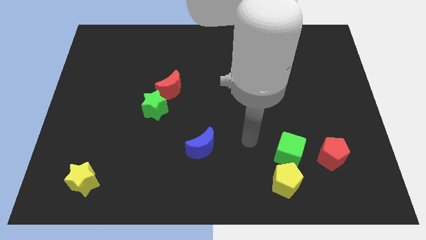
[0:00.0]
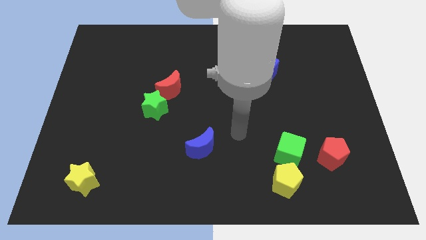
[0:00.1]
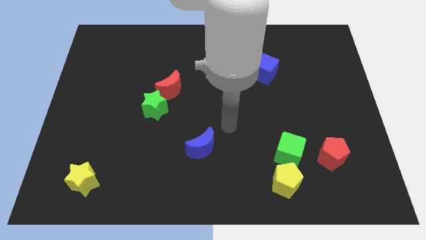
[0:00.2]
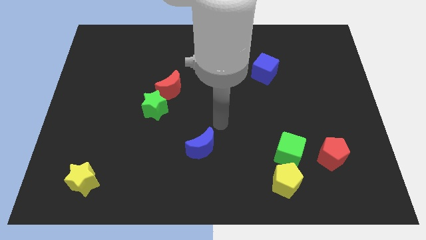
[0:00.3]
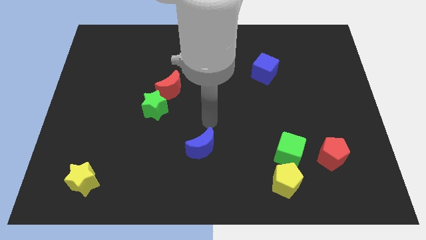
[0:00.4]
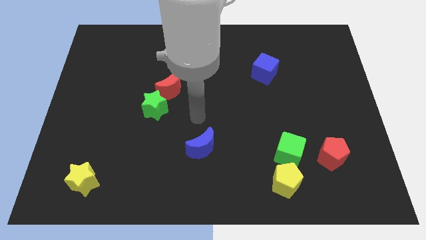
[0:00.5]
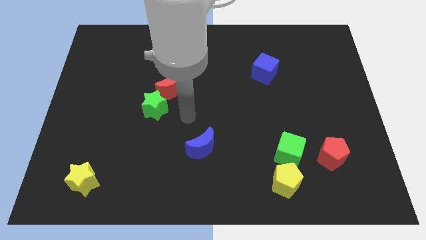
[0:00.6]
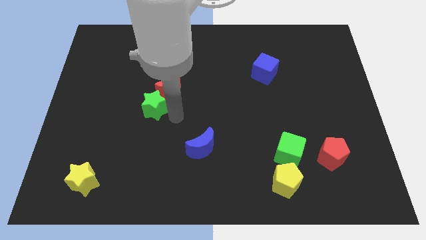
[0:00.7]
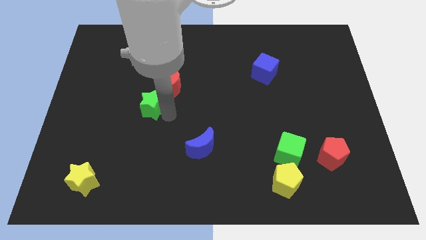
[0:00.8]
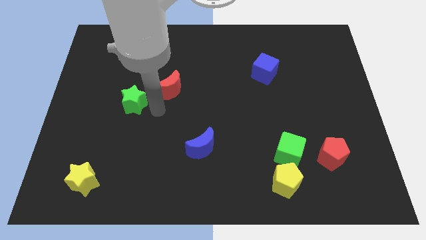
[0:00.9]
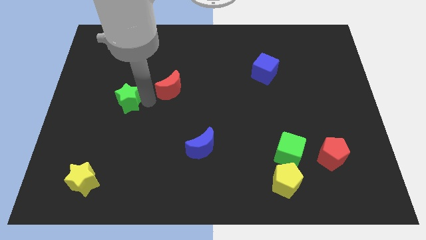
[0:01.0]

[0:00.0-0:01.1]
pull the red moon apart from the green star

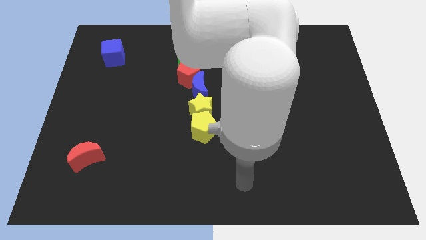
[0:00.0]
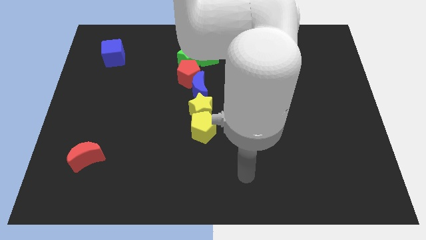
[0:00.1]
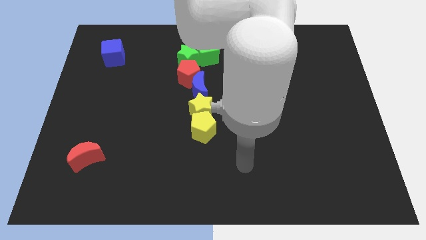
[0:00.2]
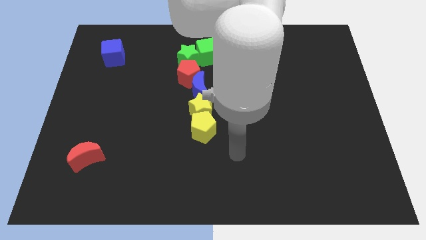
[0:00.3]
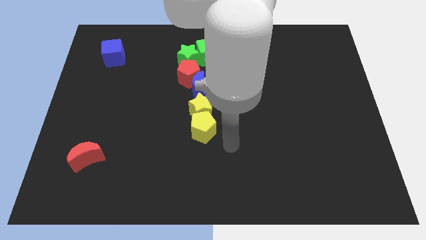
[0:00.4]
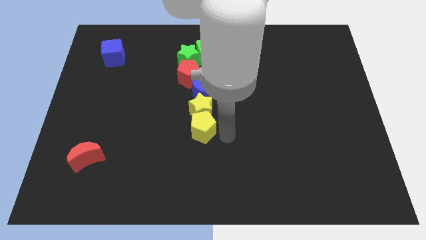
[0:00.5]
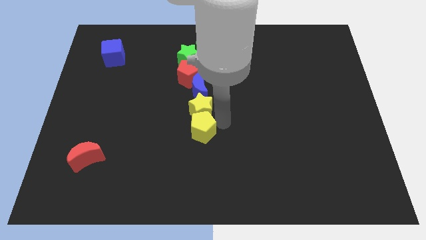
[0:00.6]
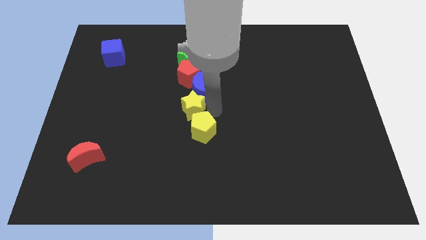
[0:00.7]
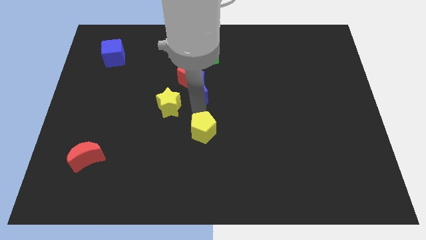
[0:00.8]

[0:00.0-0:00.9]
separate the yellow pentagon from the yellow star

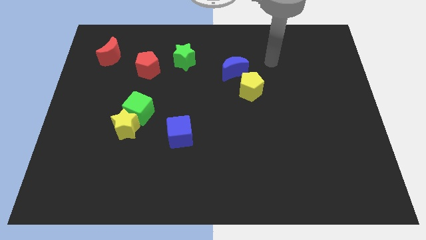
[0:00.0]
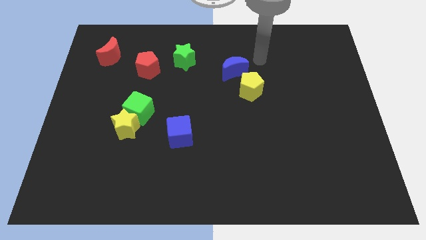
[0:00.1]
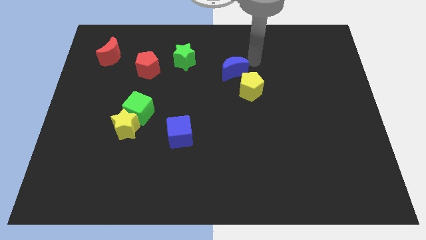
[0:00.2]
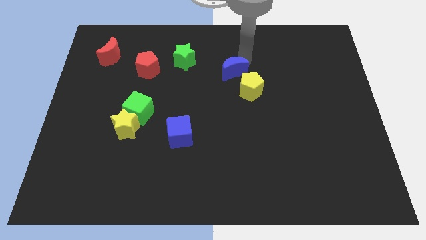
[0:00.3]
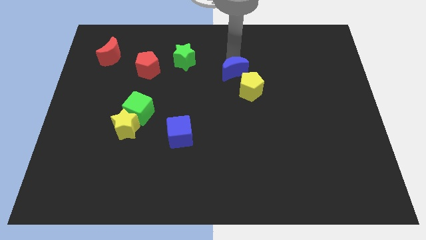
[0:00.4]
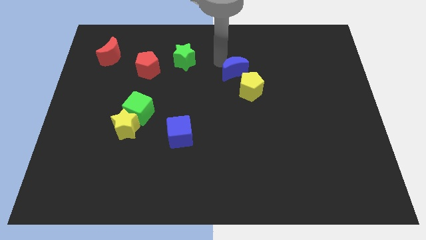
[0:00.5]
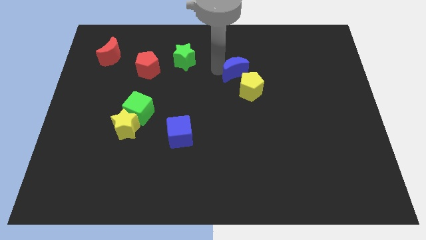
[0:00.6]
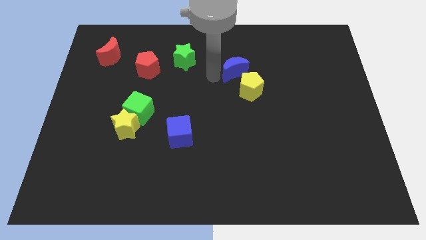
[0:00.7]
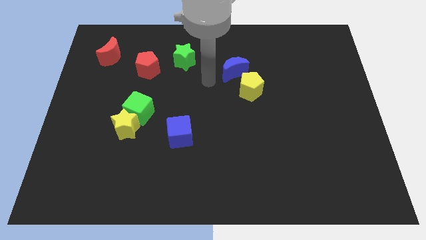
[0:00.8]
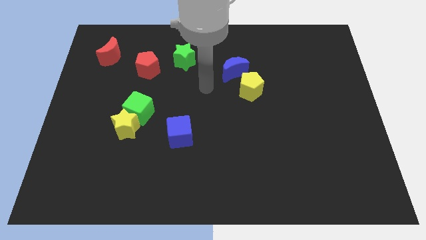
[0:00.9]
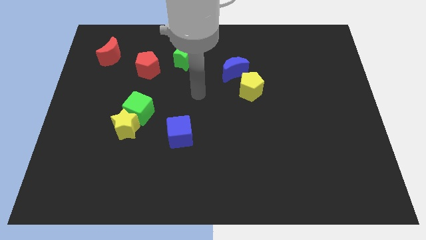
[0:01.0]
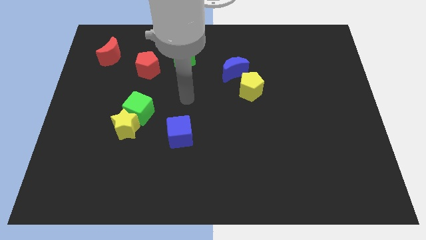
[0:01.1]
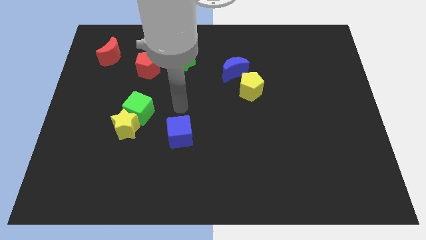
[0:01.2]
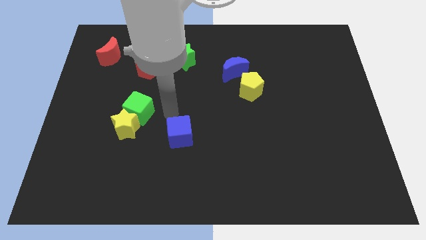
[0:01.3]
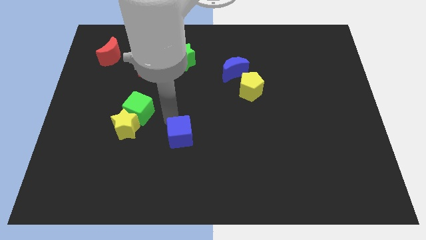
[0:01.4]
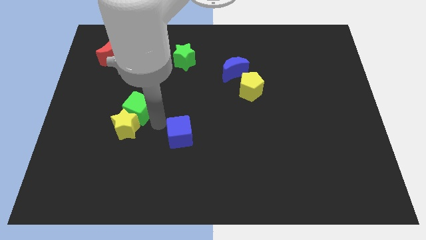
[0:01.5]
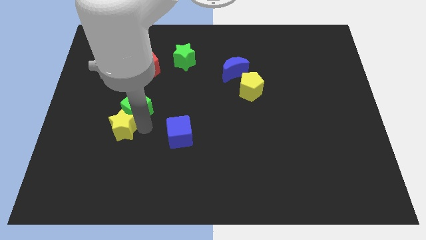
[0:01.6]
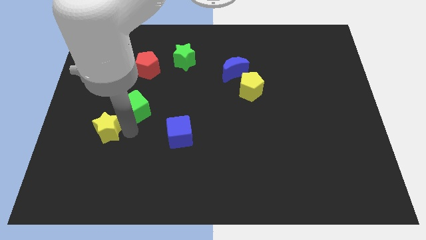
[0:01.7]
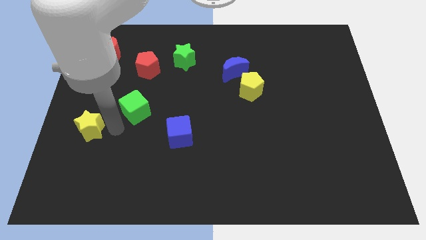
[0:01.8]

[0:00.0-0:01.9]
pull the green cube apart from the yellow star

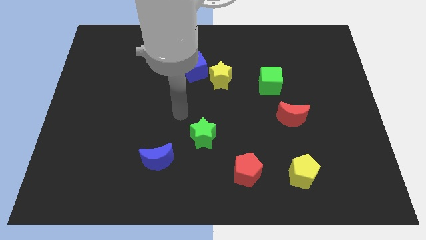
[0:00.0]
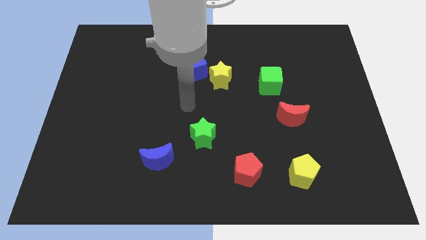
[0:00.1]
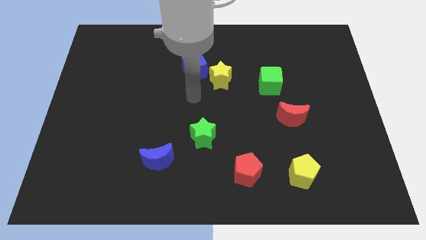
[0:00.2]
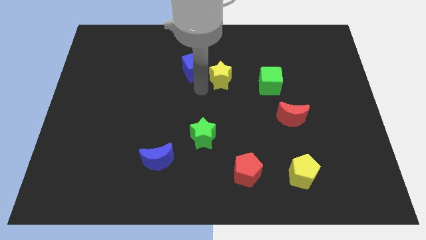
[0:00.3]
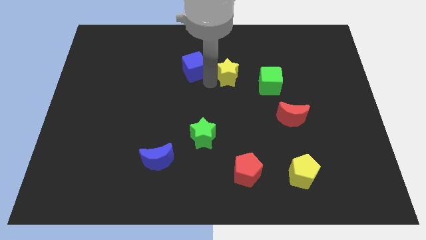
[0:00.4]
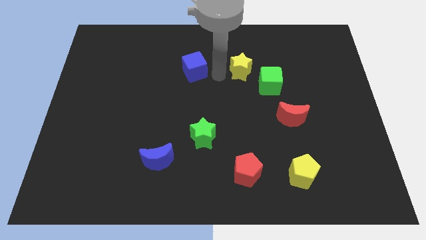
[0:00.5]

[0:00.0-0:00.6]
separate the blue cube from the yellow star

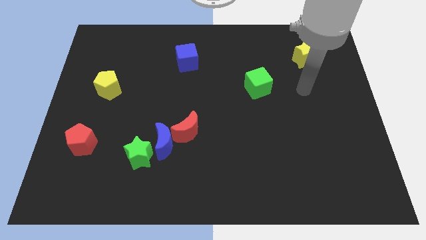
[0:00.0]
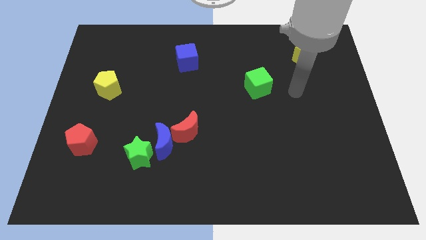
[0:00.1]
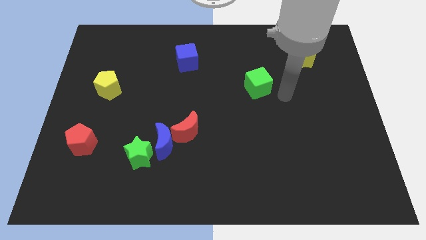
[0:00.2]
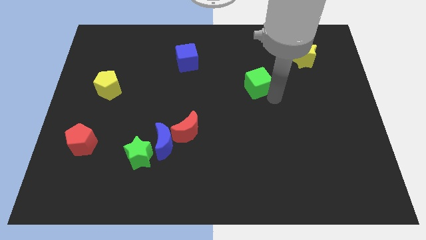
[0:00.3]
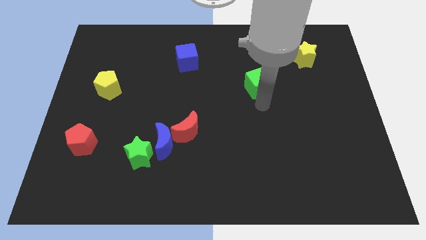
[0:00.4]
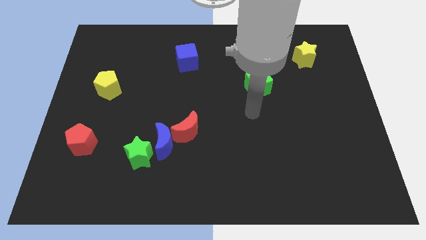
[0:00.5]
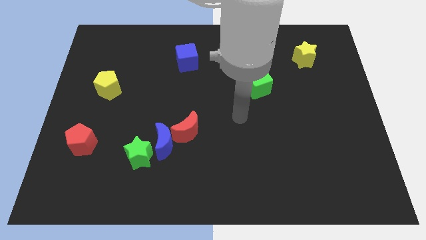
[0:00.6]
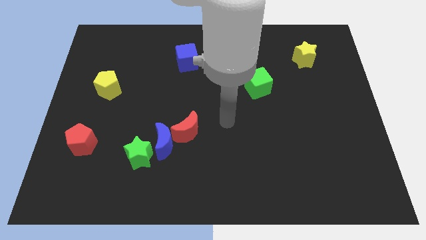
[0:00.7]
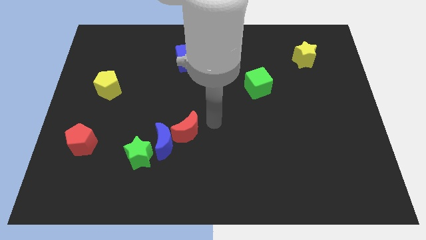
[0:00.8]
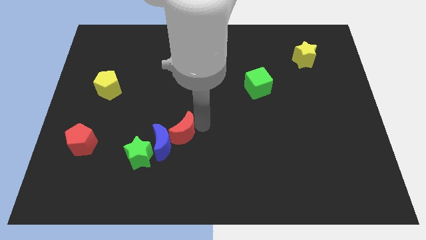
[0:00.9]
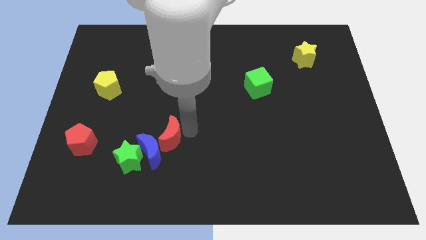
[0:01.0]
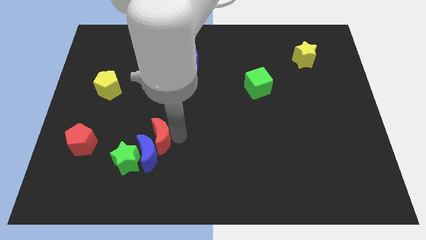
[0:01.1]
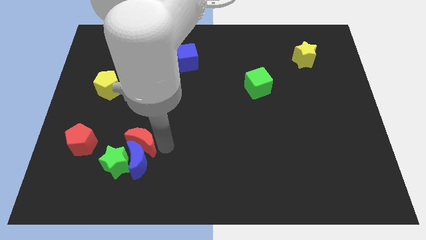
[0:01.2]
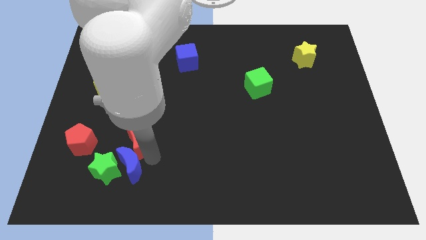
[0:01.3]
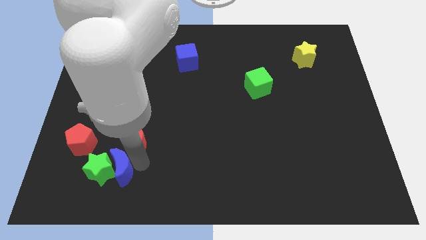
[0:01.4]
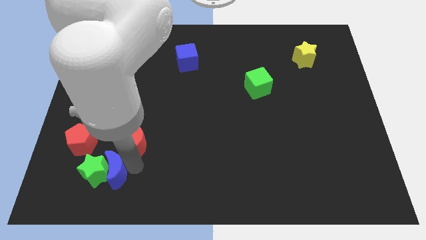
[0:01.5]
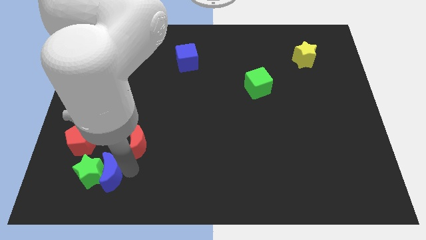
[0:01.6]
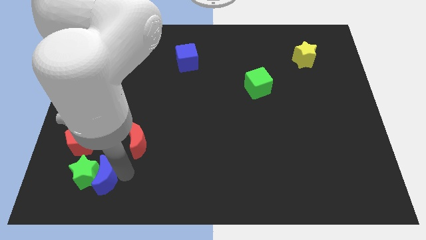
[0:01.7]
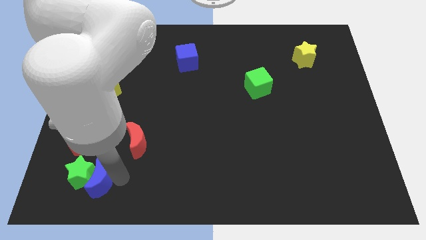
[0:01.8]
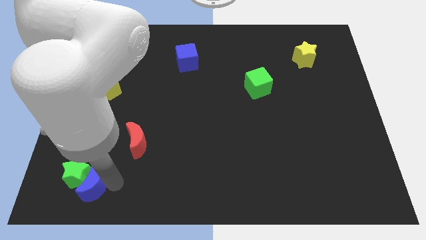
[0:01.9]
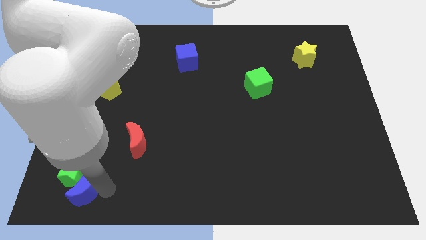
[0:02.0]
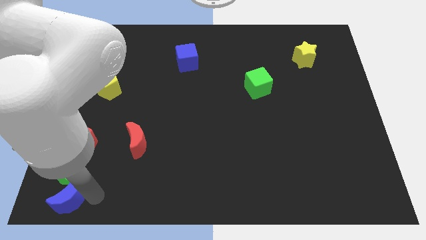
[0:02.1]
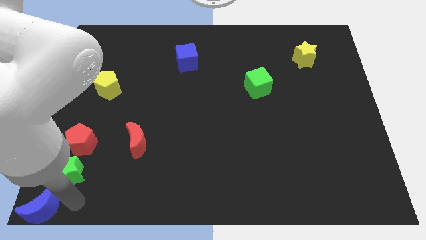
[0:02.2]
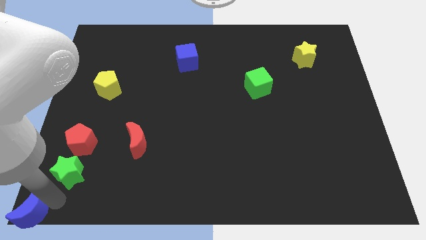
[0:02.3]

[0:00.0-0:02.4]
separate the green star from the blue moon

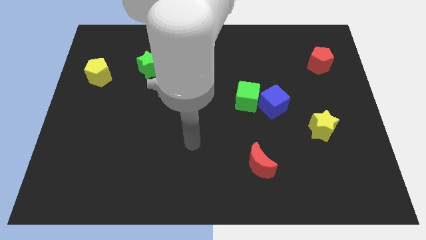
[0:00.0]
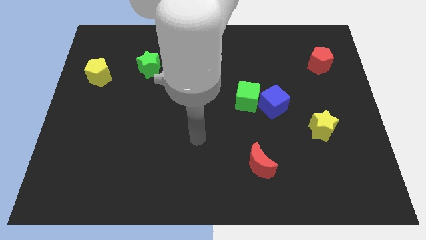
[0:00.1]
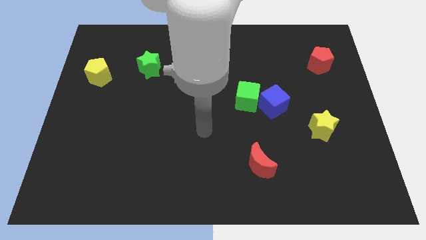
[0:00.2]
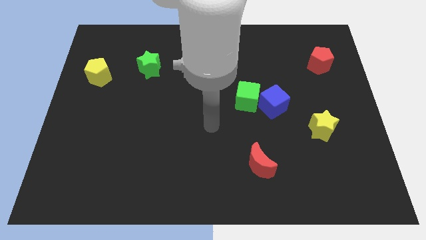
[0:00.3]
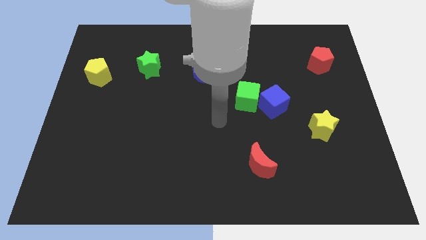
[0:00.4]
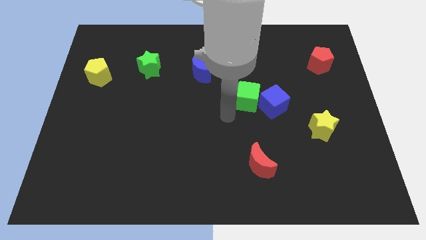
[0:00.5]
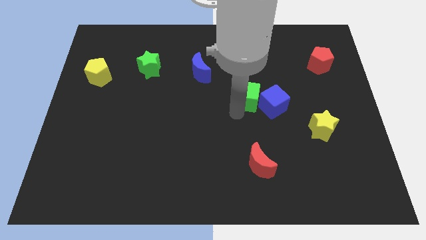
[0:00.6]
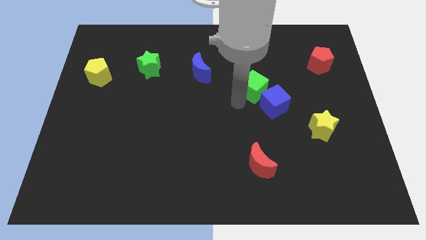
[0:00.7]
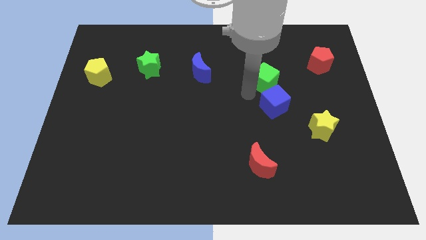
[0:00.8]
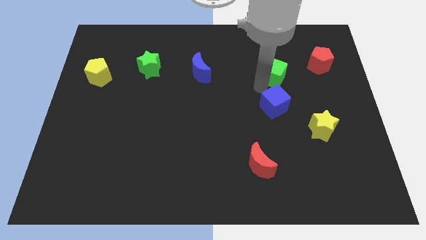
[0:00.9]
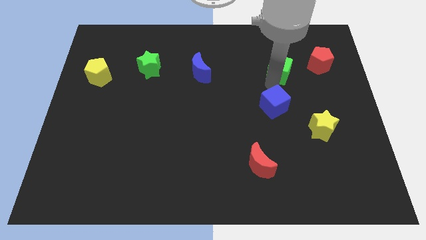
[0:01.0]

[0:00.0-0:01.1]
move the blue cube away from the green cube

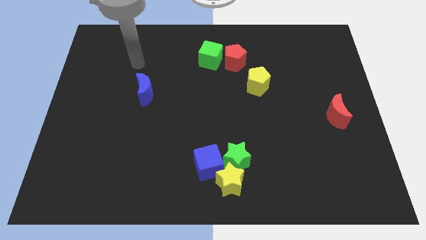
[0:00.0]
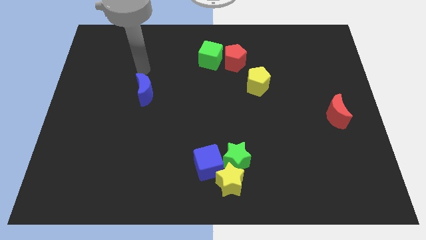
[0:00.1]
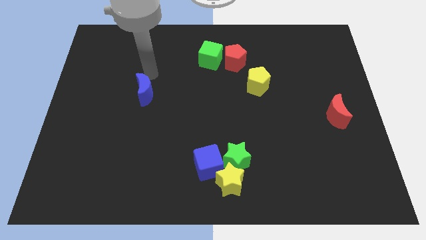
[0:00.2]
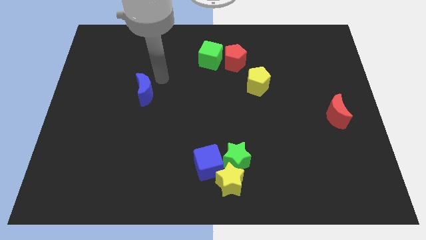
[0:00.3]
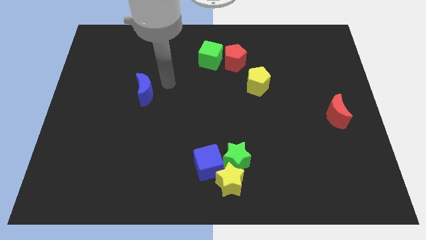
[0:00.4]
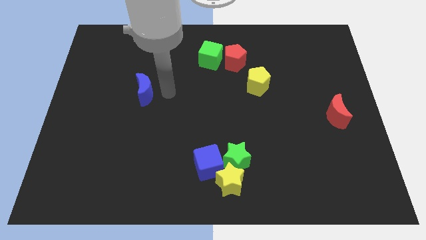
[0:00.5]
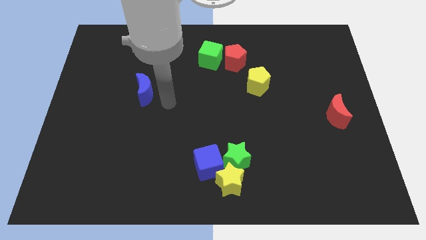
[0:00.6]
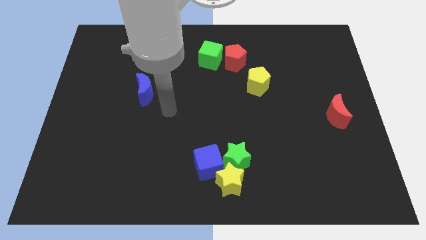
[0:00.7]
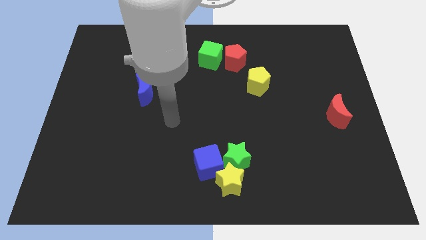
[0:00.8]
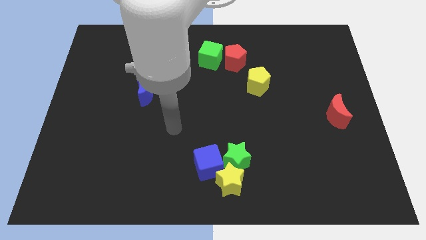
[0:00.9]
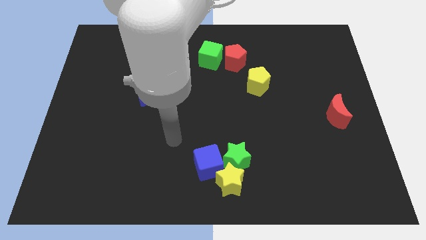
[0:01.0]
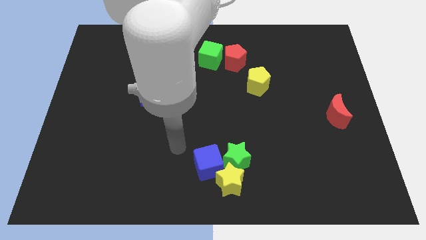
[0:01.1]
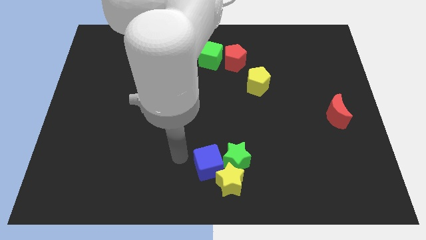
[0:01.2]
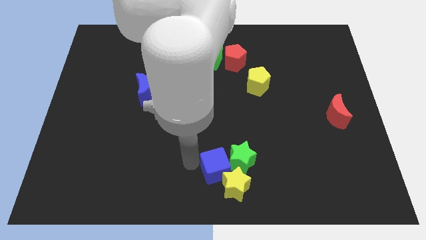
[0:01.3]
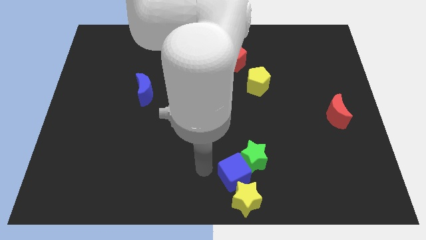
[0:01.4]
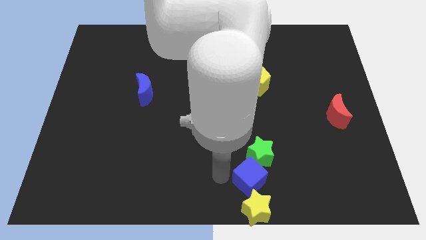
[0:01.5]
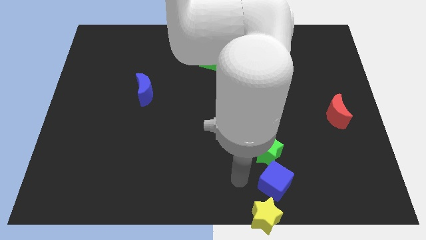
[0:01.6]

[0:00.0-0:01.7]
move the green star away from the yellow star and blue cube
